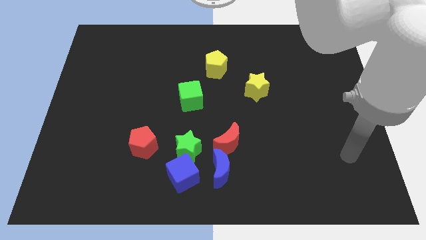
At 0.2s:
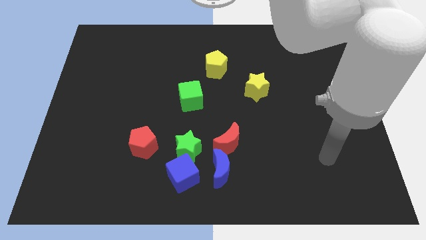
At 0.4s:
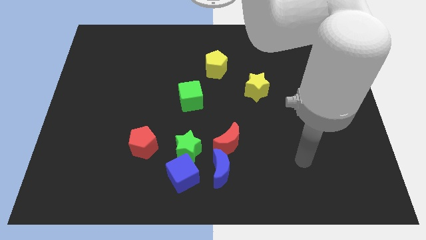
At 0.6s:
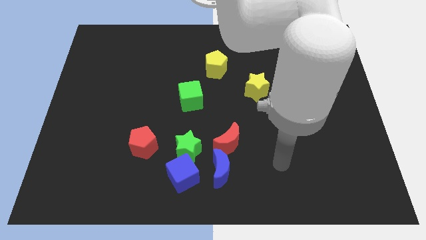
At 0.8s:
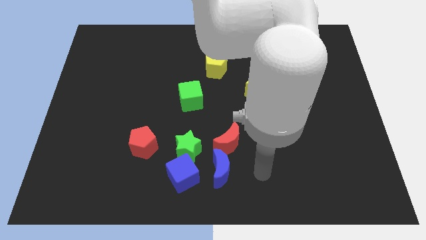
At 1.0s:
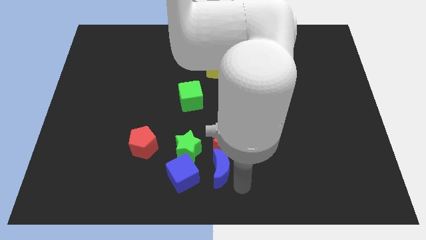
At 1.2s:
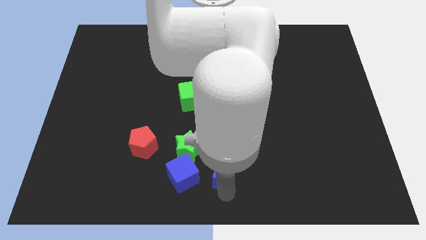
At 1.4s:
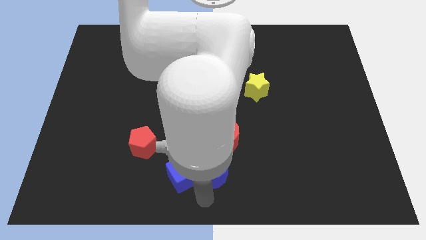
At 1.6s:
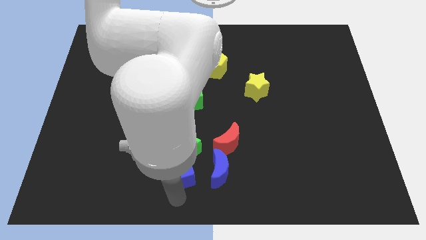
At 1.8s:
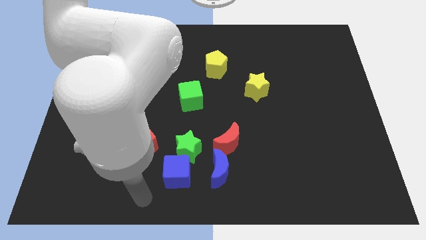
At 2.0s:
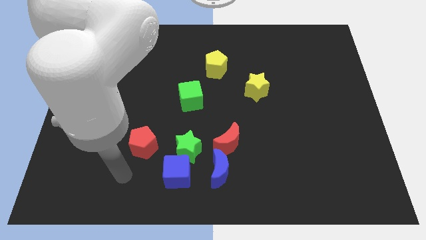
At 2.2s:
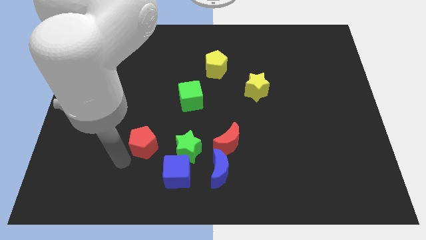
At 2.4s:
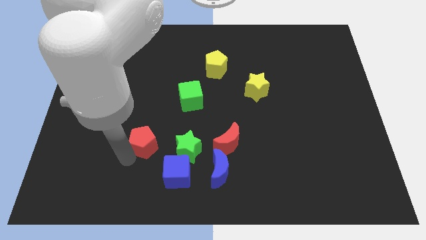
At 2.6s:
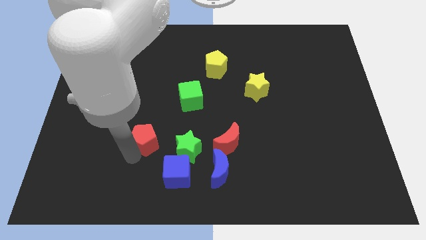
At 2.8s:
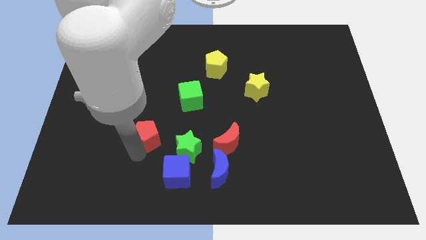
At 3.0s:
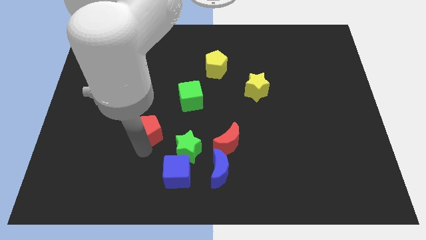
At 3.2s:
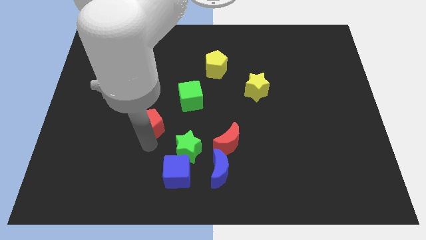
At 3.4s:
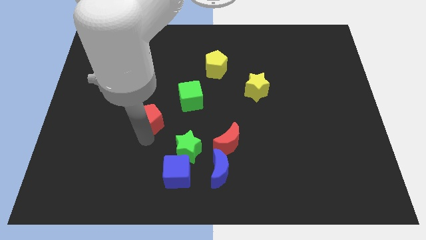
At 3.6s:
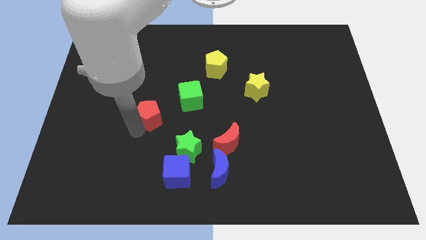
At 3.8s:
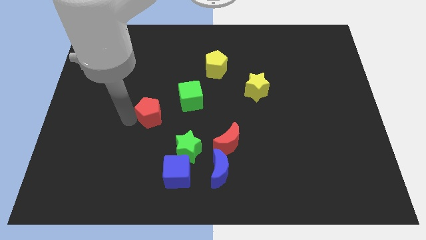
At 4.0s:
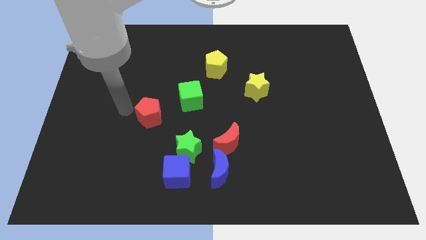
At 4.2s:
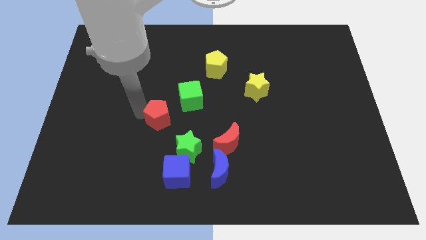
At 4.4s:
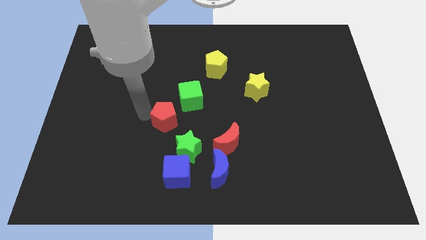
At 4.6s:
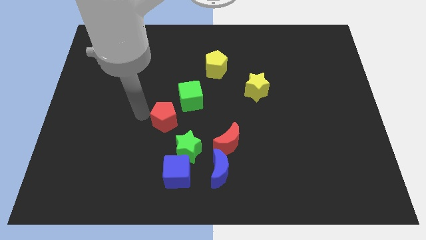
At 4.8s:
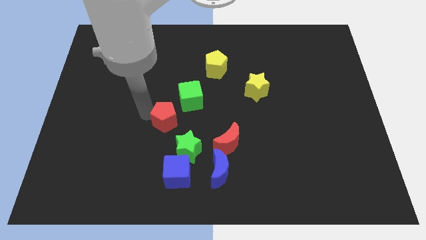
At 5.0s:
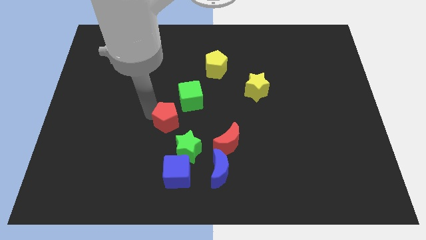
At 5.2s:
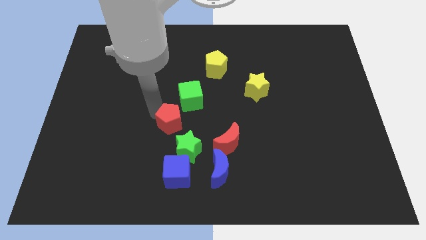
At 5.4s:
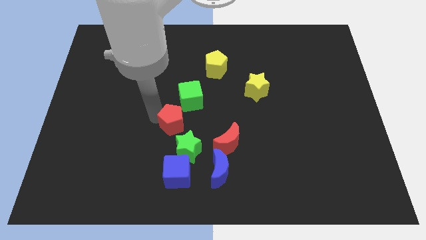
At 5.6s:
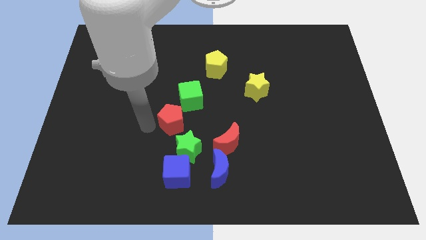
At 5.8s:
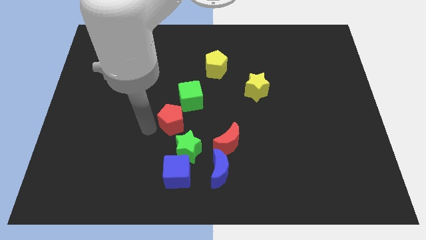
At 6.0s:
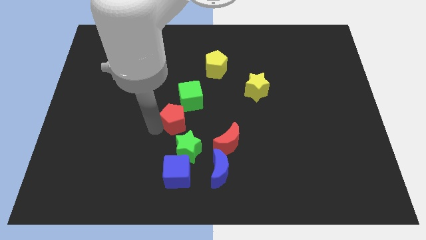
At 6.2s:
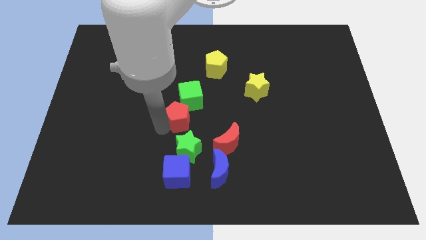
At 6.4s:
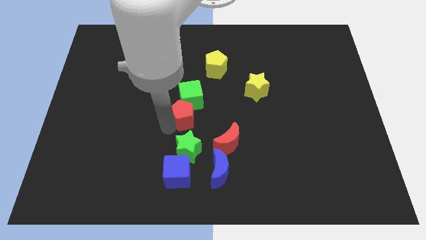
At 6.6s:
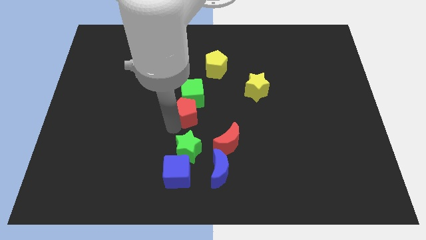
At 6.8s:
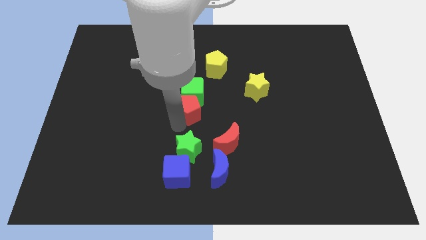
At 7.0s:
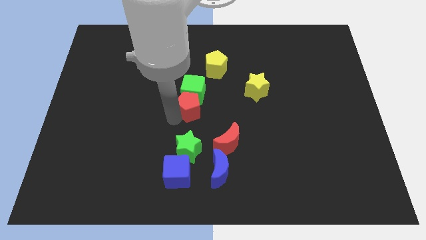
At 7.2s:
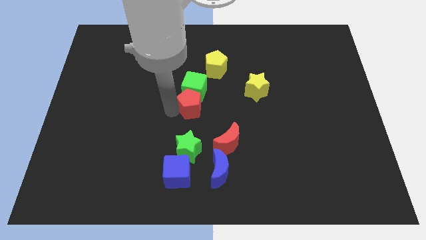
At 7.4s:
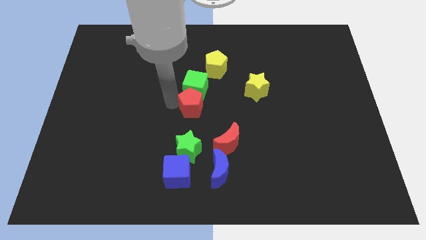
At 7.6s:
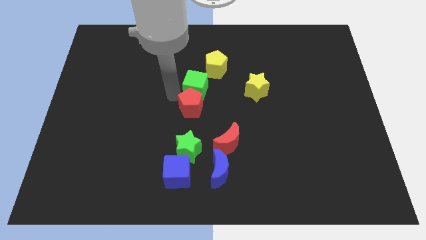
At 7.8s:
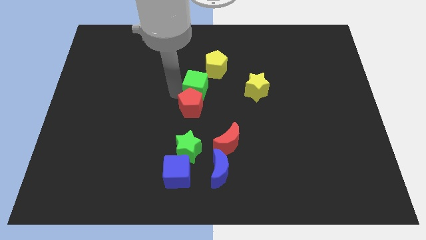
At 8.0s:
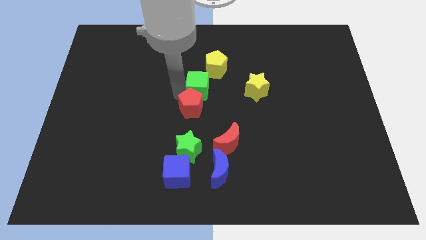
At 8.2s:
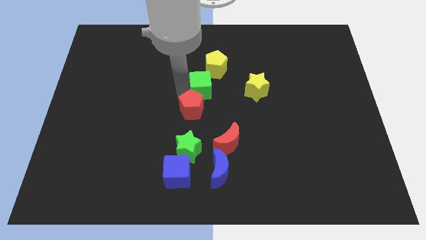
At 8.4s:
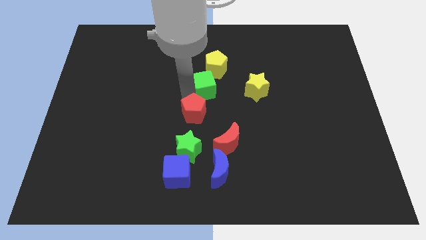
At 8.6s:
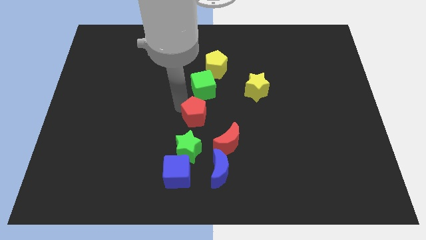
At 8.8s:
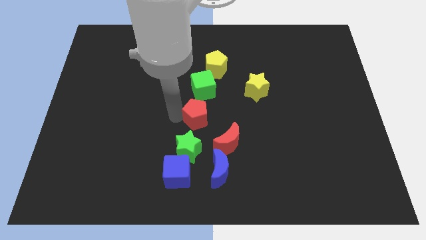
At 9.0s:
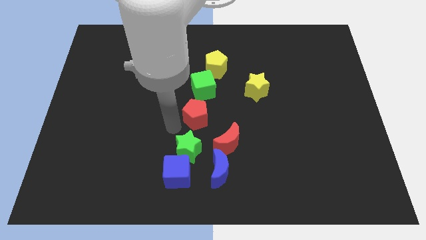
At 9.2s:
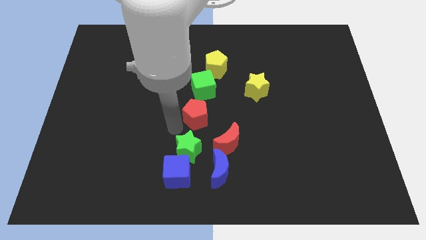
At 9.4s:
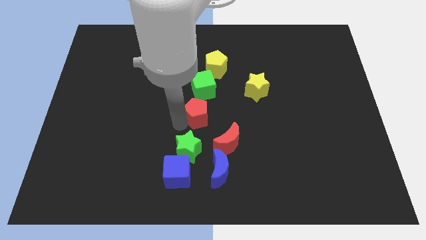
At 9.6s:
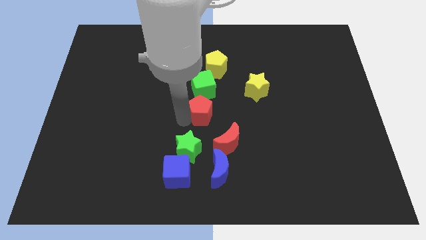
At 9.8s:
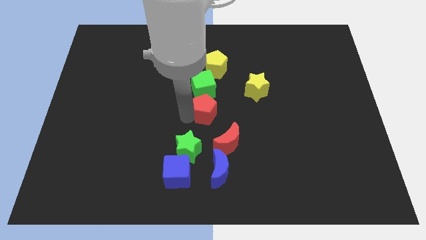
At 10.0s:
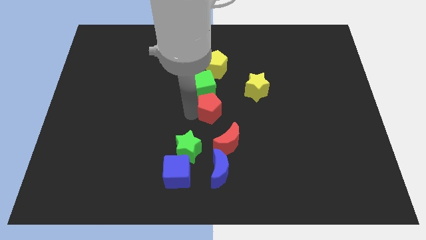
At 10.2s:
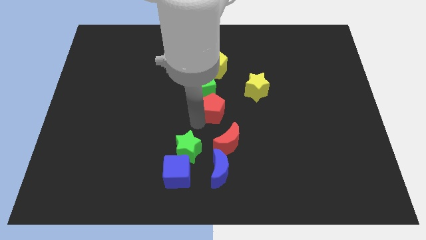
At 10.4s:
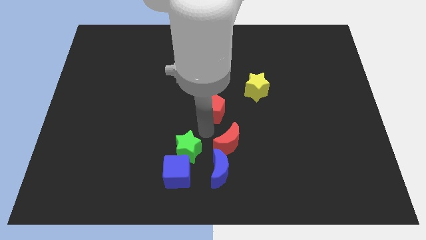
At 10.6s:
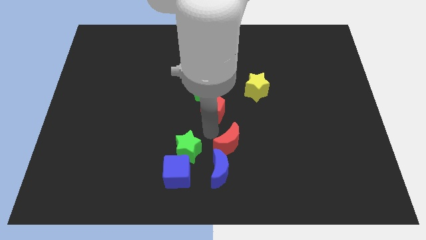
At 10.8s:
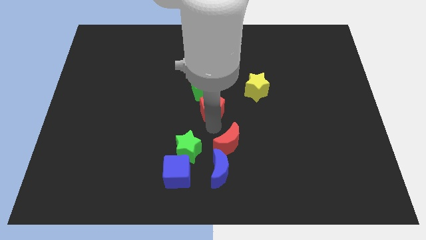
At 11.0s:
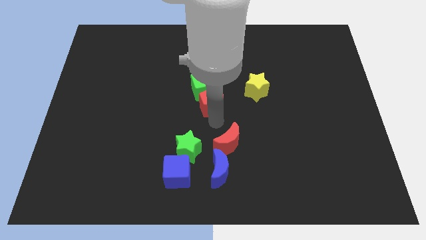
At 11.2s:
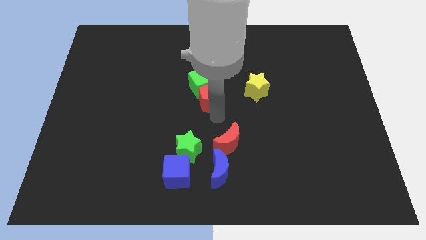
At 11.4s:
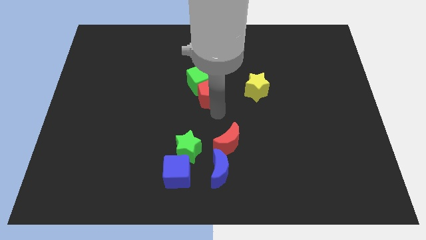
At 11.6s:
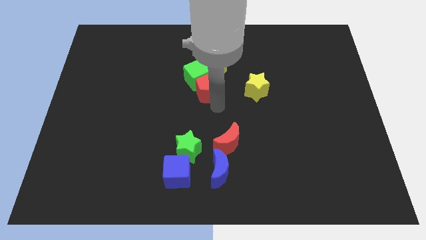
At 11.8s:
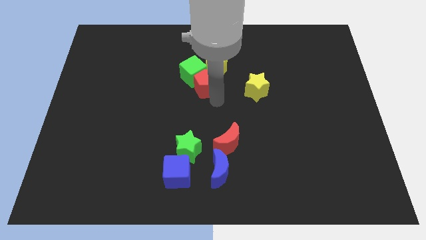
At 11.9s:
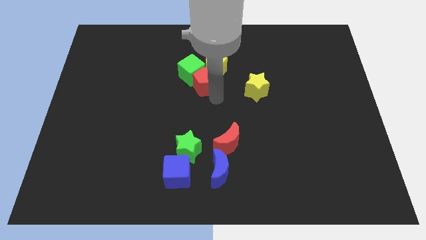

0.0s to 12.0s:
slide the red pentagon close to the yellow pentagon

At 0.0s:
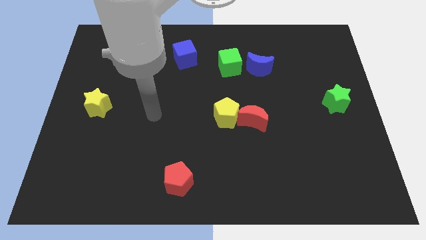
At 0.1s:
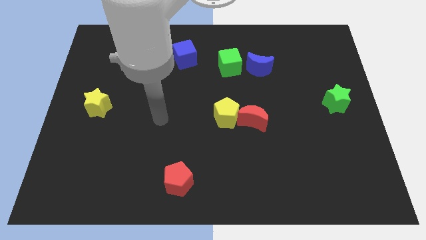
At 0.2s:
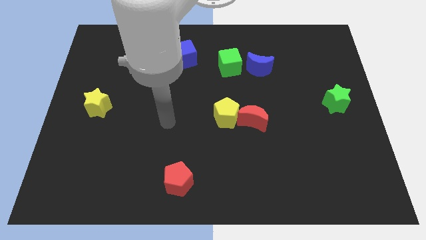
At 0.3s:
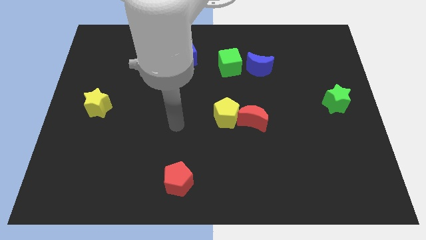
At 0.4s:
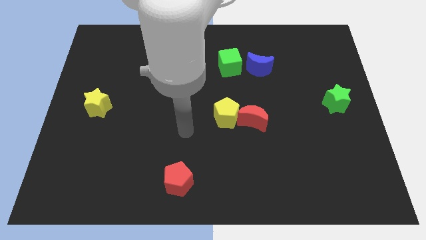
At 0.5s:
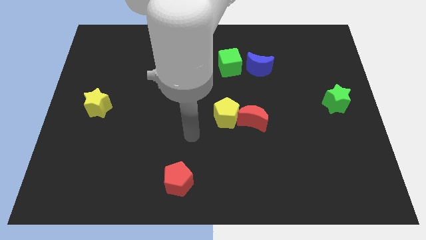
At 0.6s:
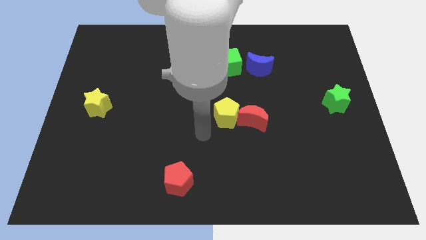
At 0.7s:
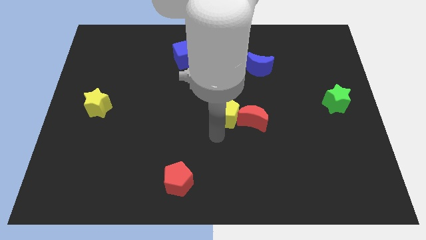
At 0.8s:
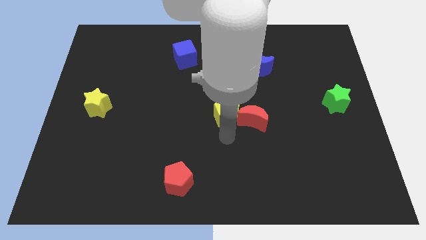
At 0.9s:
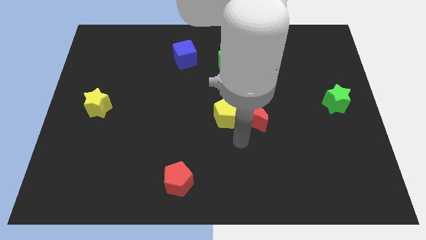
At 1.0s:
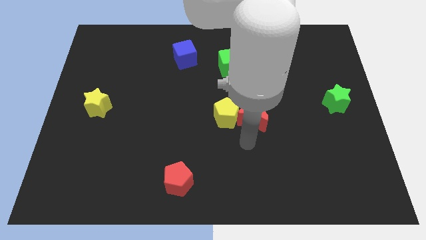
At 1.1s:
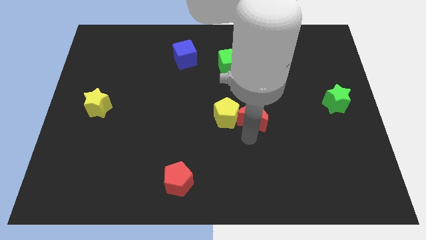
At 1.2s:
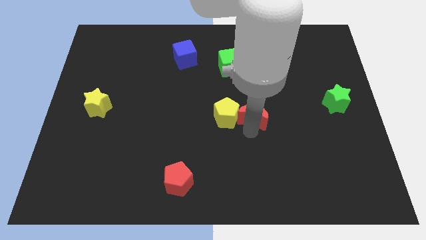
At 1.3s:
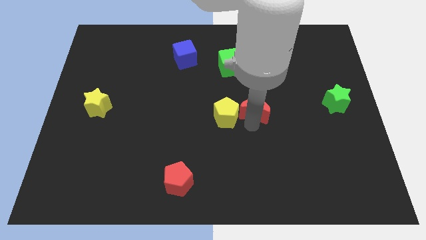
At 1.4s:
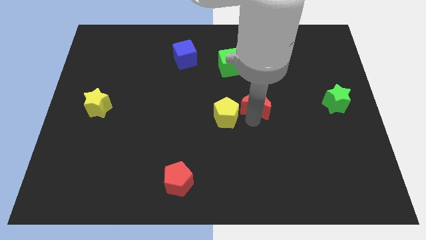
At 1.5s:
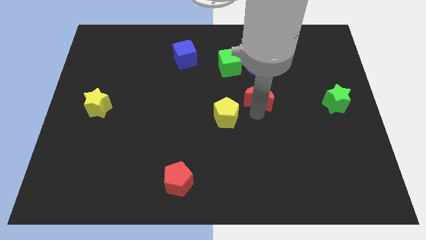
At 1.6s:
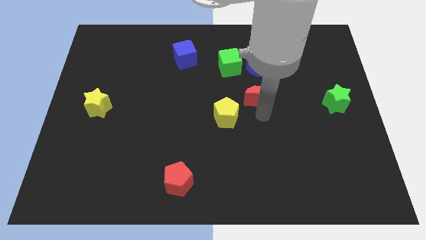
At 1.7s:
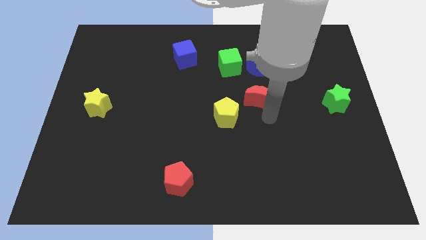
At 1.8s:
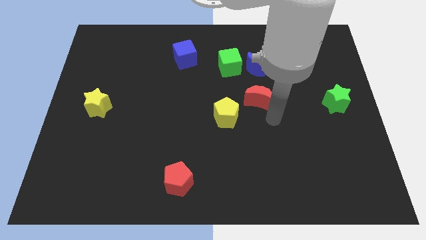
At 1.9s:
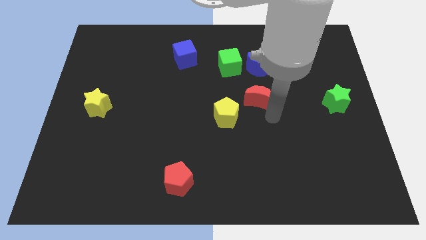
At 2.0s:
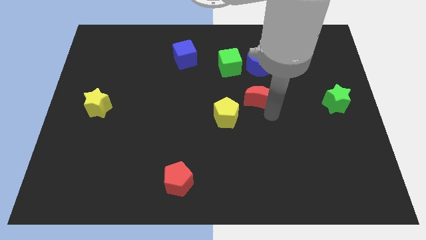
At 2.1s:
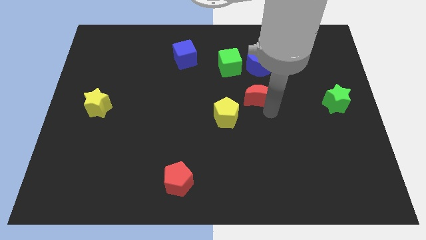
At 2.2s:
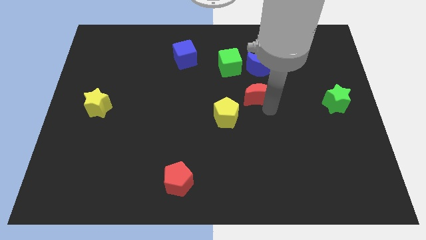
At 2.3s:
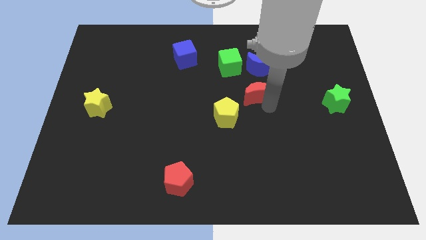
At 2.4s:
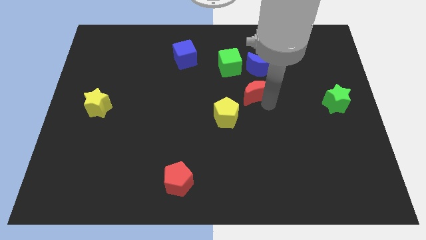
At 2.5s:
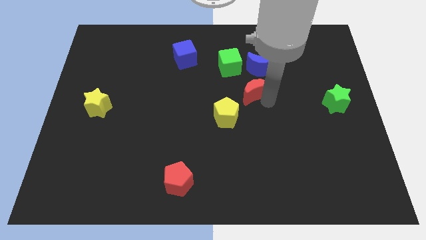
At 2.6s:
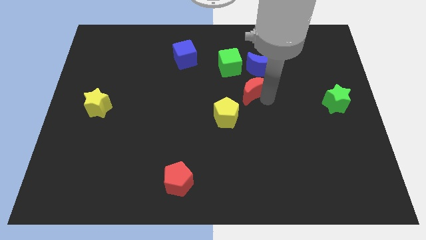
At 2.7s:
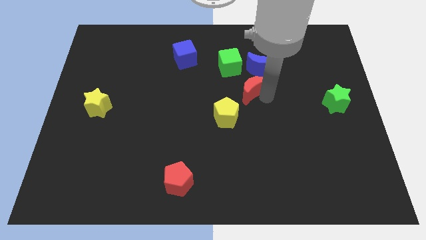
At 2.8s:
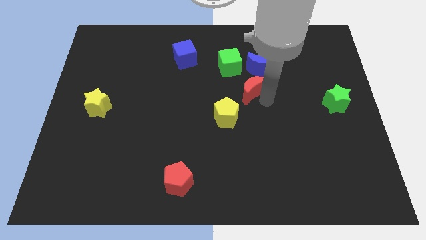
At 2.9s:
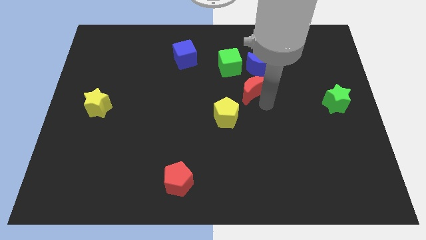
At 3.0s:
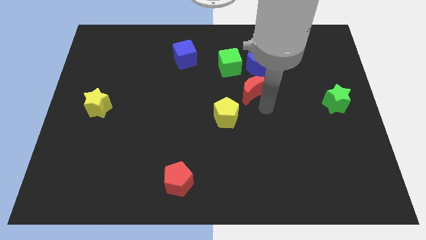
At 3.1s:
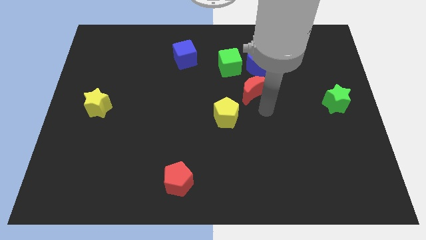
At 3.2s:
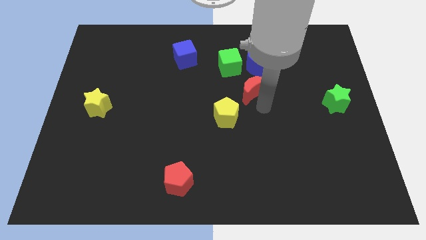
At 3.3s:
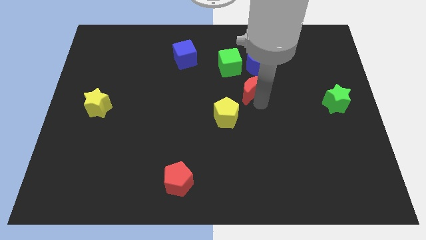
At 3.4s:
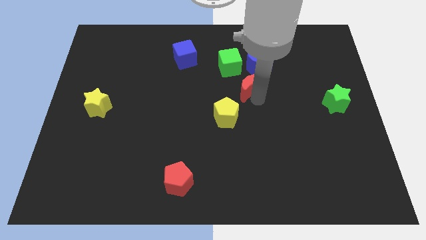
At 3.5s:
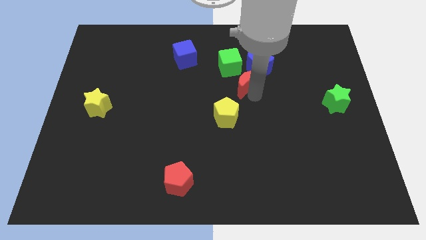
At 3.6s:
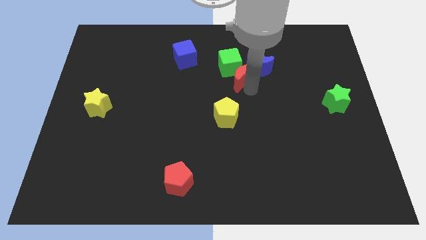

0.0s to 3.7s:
push the red moon to the green cube
